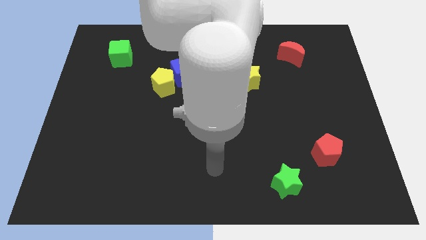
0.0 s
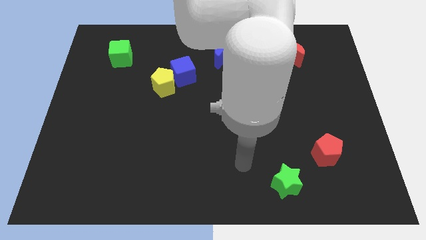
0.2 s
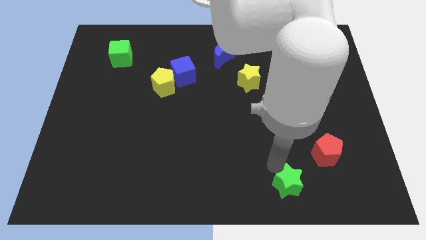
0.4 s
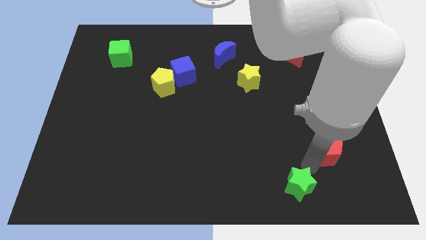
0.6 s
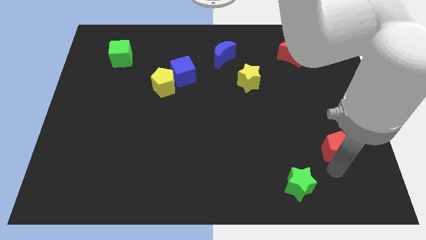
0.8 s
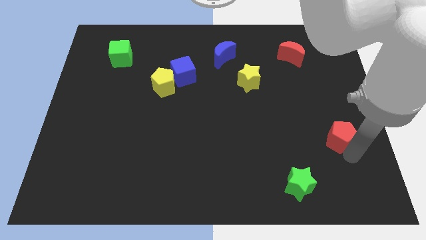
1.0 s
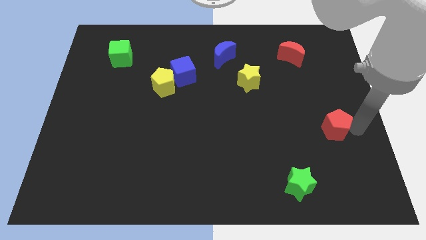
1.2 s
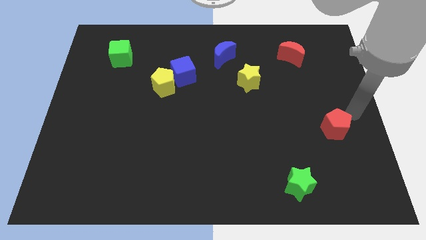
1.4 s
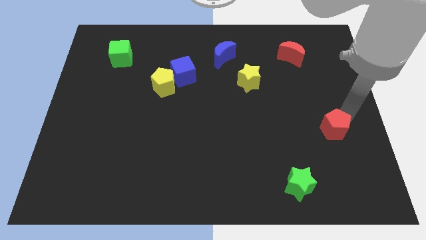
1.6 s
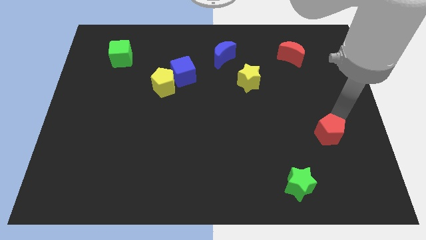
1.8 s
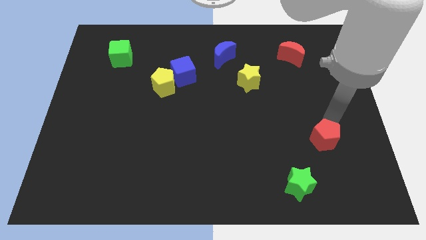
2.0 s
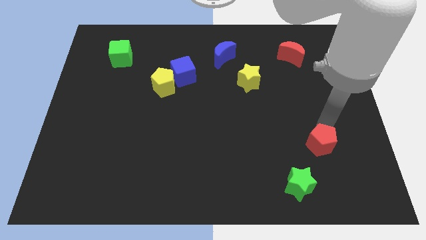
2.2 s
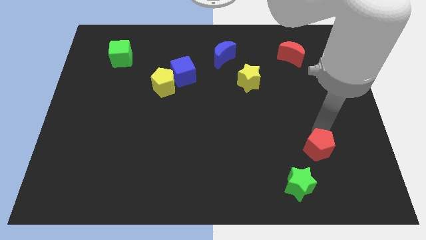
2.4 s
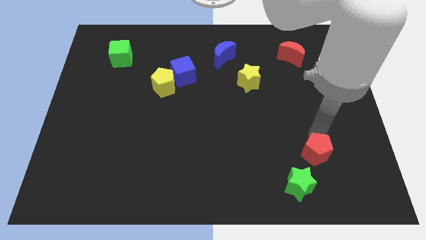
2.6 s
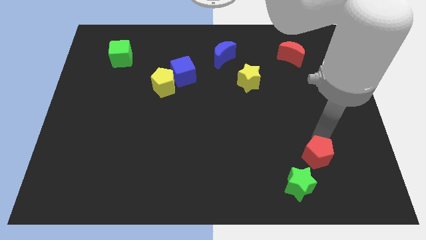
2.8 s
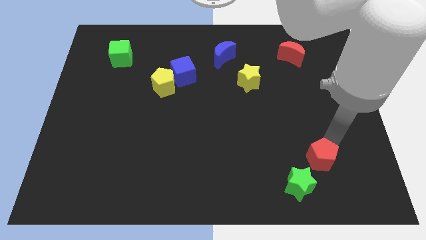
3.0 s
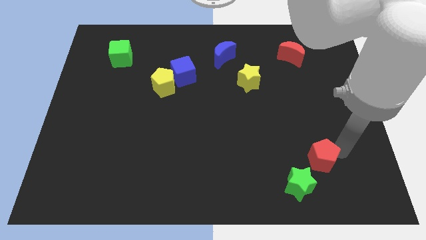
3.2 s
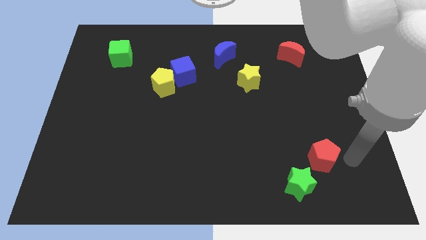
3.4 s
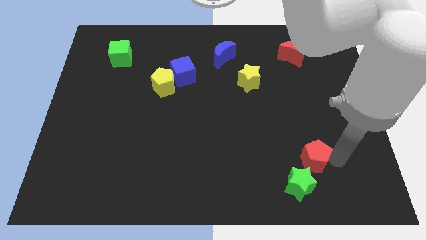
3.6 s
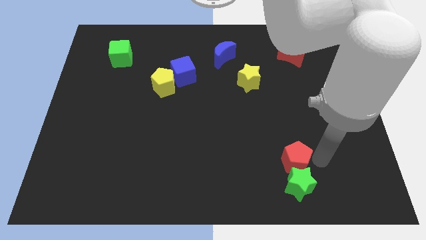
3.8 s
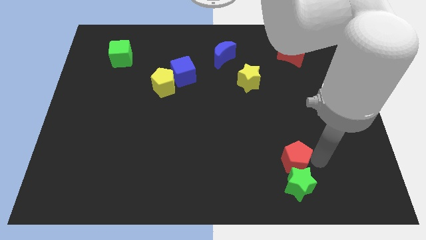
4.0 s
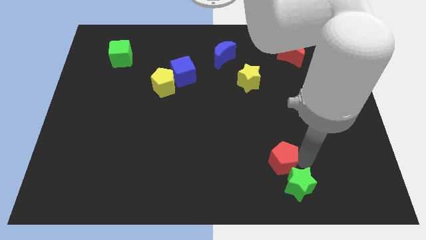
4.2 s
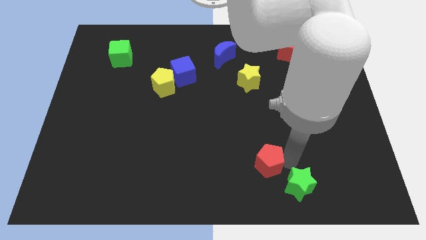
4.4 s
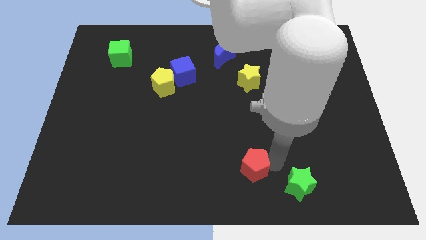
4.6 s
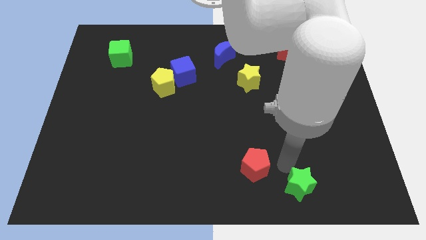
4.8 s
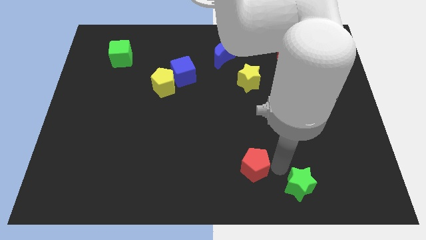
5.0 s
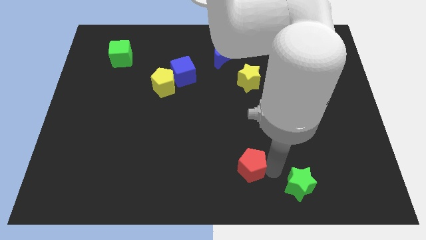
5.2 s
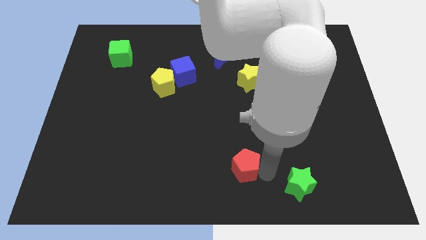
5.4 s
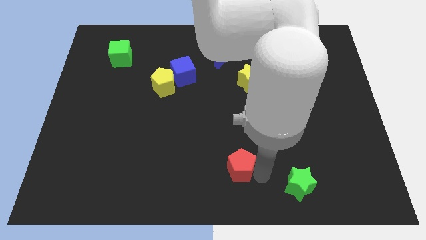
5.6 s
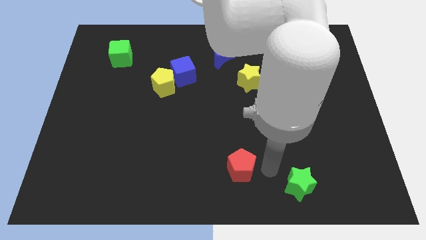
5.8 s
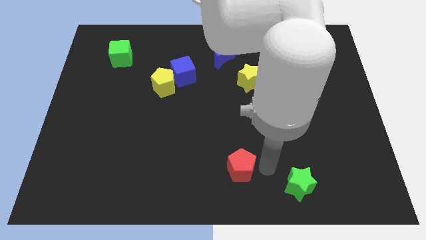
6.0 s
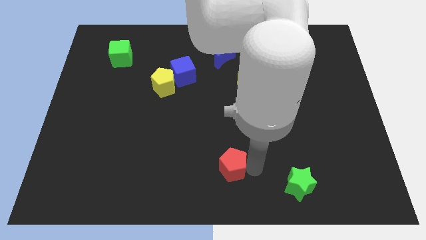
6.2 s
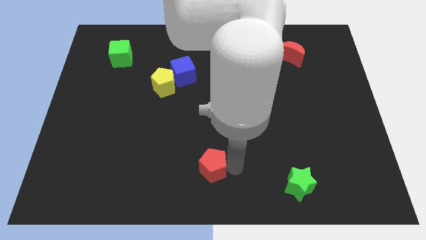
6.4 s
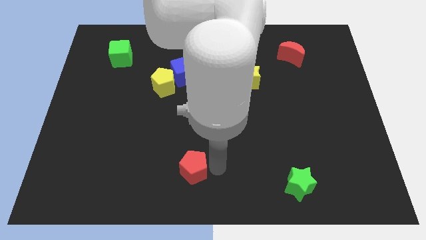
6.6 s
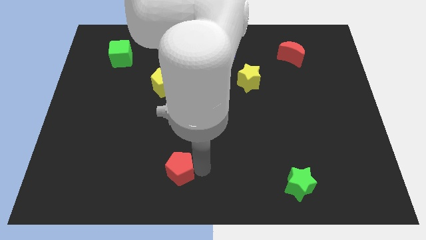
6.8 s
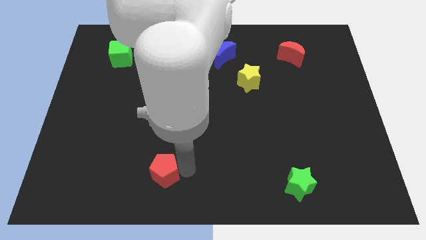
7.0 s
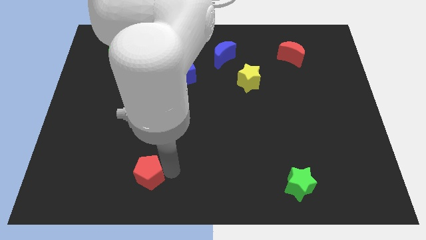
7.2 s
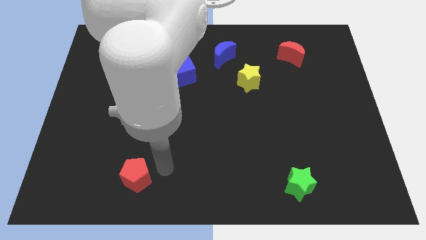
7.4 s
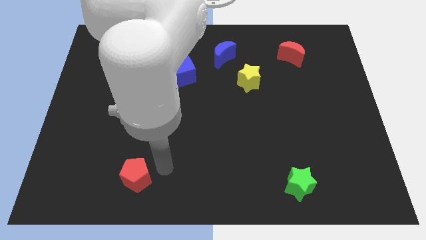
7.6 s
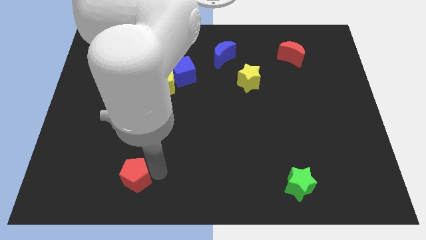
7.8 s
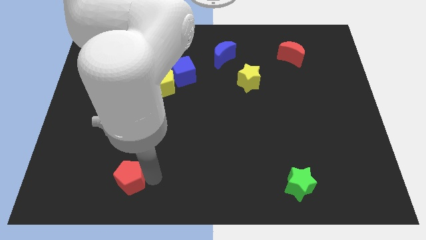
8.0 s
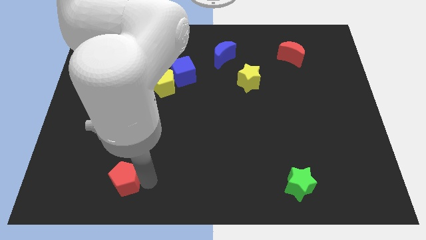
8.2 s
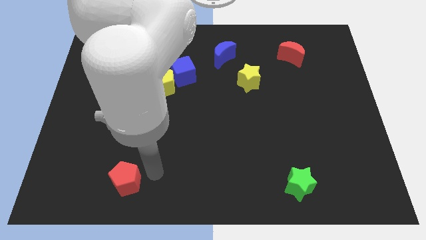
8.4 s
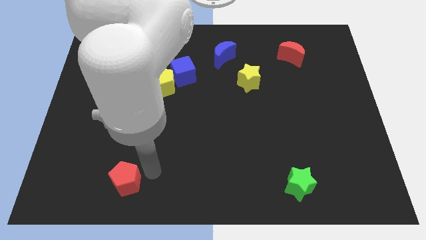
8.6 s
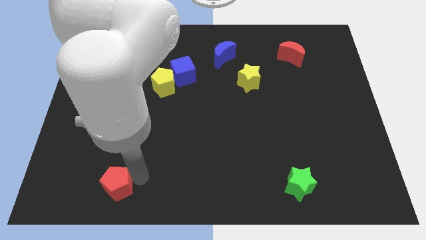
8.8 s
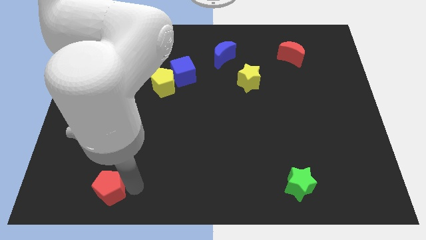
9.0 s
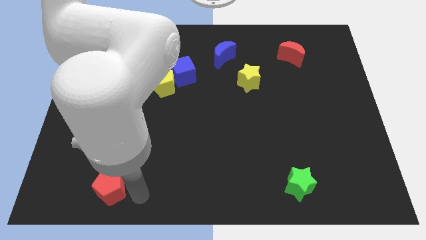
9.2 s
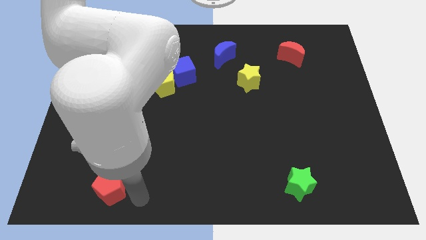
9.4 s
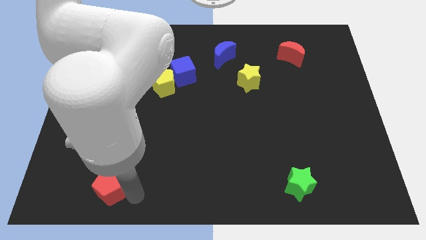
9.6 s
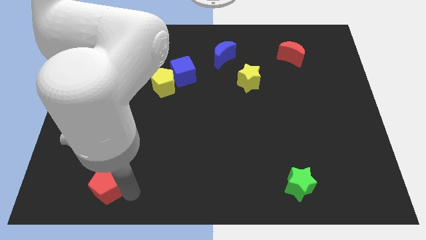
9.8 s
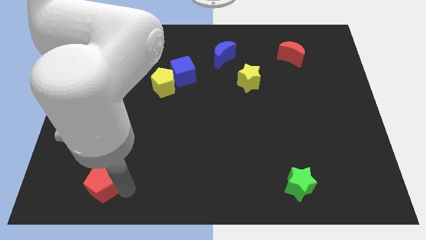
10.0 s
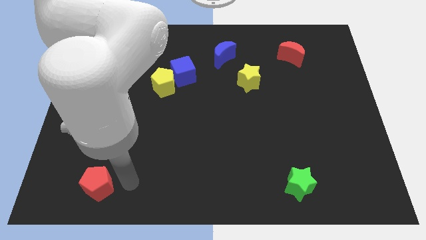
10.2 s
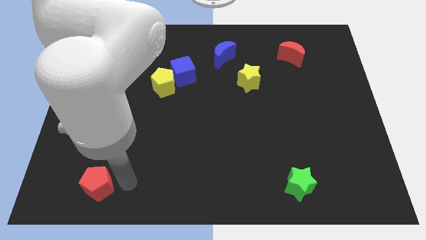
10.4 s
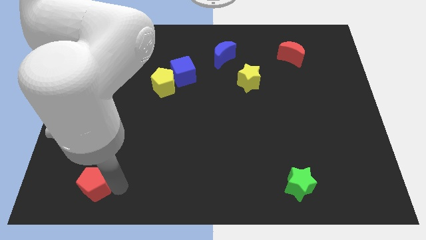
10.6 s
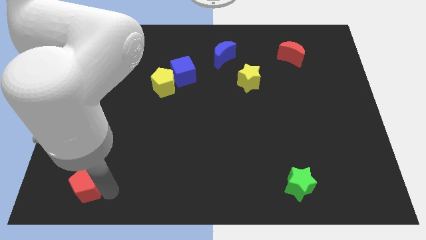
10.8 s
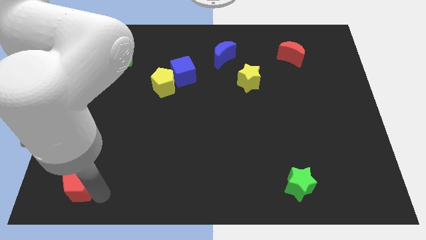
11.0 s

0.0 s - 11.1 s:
slide the red pentagon to the bottom left corner
